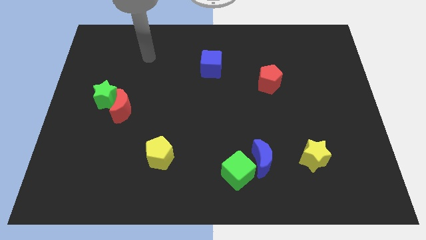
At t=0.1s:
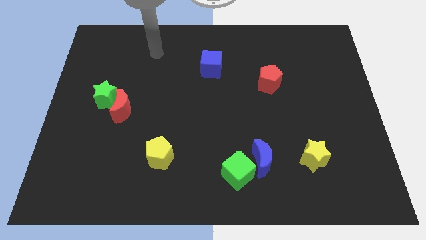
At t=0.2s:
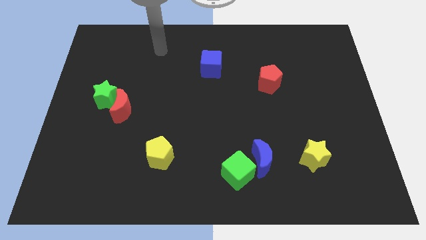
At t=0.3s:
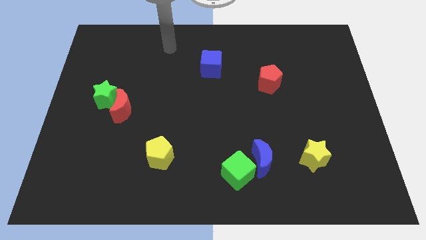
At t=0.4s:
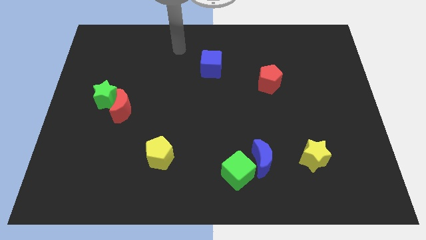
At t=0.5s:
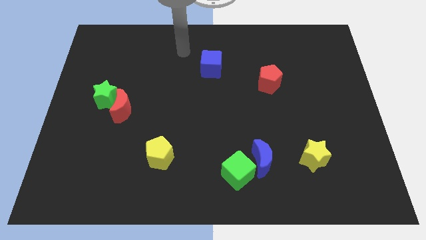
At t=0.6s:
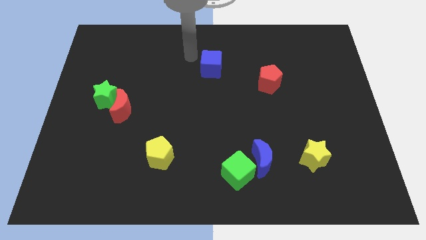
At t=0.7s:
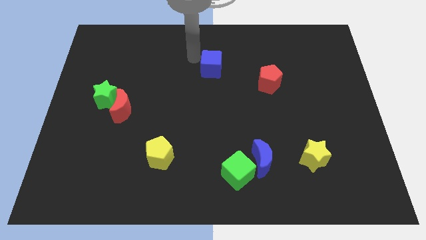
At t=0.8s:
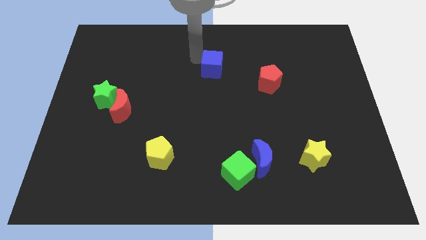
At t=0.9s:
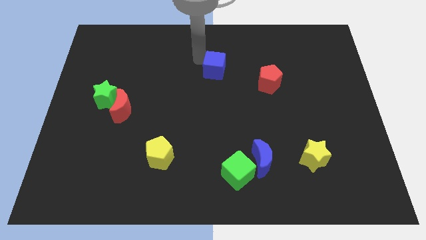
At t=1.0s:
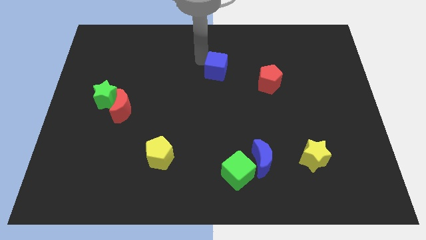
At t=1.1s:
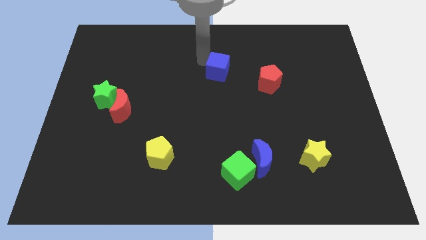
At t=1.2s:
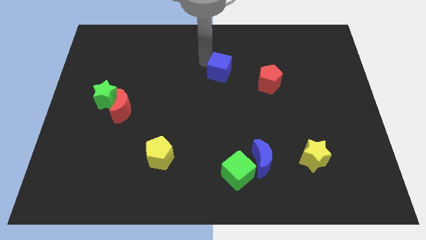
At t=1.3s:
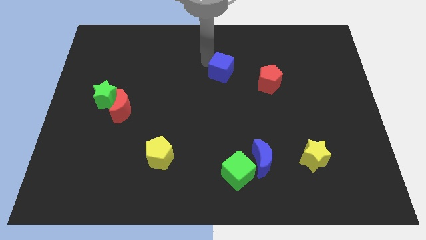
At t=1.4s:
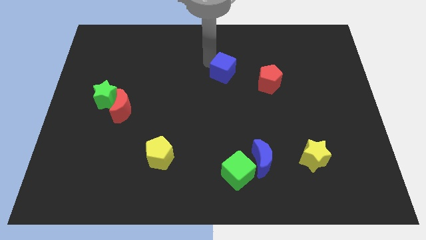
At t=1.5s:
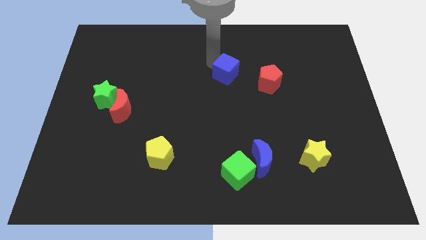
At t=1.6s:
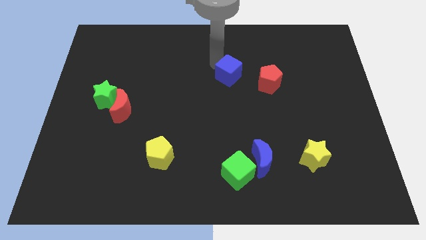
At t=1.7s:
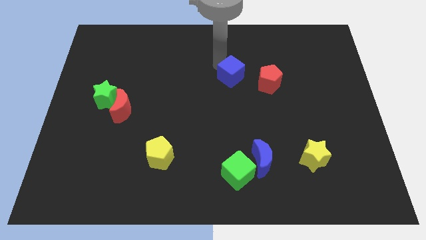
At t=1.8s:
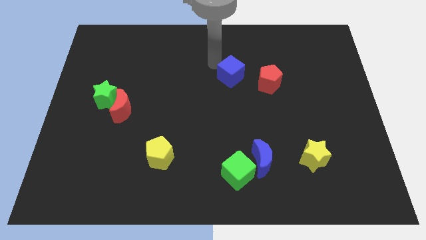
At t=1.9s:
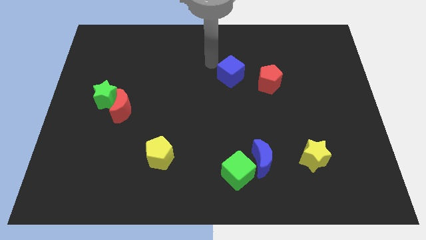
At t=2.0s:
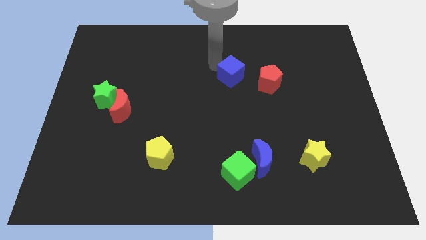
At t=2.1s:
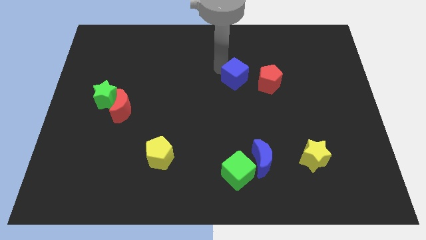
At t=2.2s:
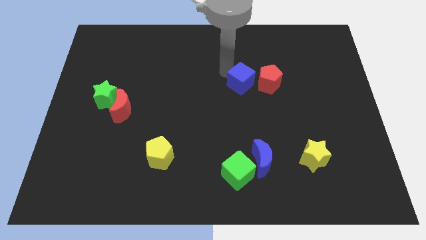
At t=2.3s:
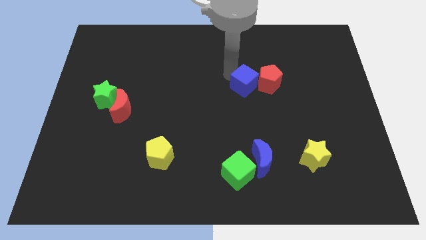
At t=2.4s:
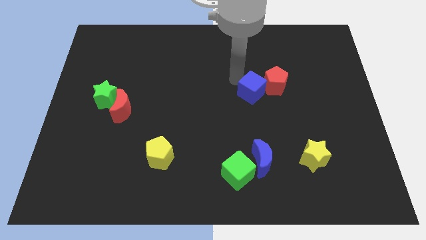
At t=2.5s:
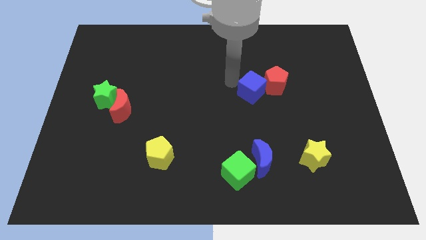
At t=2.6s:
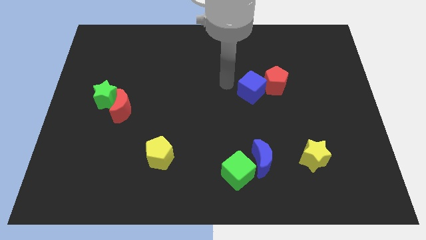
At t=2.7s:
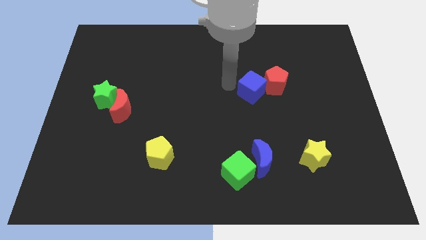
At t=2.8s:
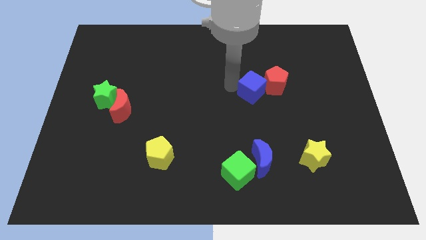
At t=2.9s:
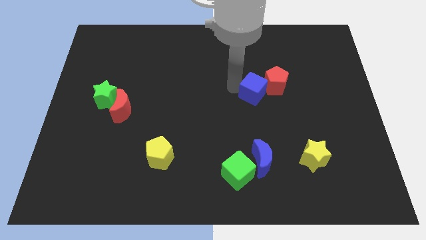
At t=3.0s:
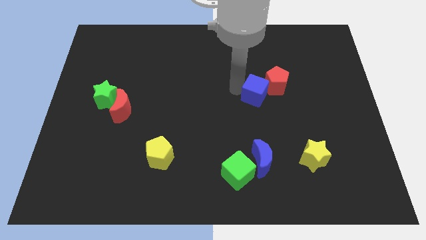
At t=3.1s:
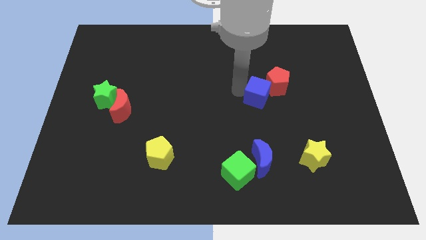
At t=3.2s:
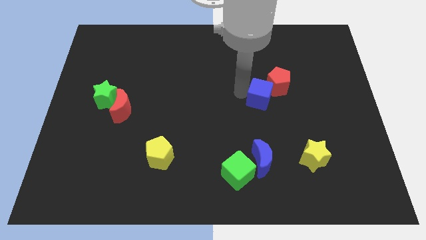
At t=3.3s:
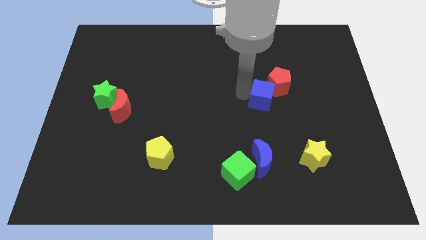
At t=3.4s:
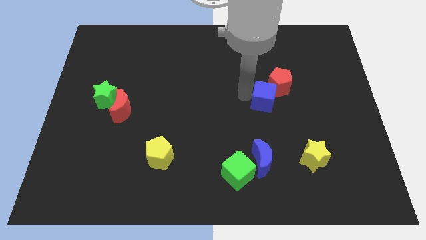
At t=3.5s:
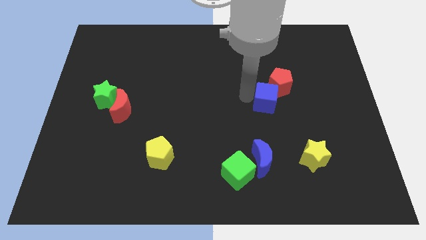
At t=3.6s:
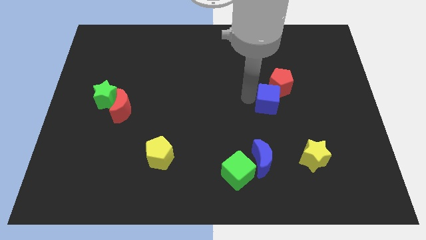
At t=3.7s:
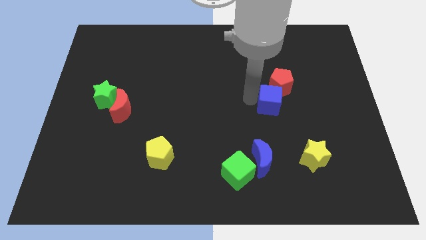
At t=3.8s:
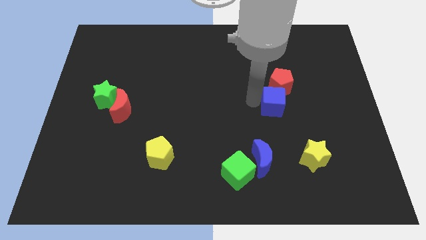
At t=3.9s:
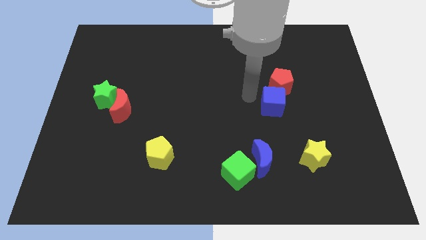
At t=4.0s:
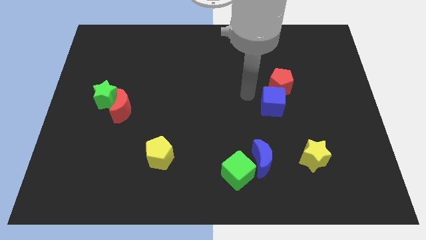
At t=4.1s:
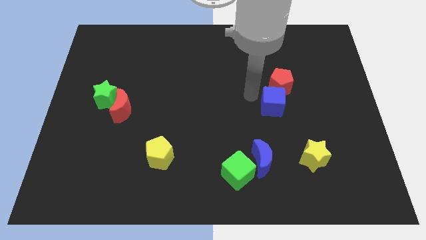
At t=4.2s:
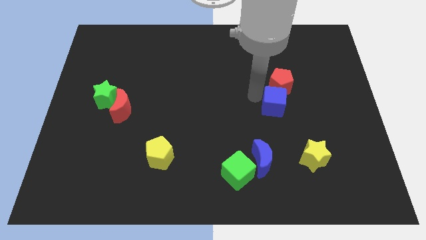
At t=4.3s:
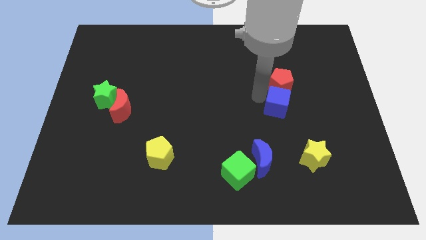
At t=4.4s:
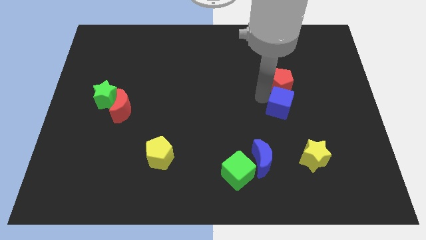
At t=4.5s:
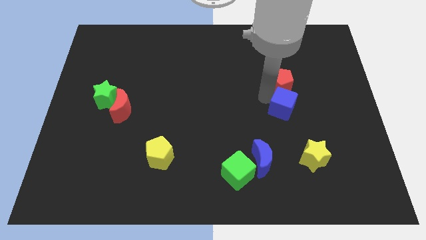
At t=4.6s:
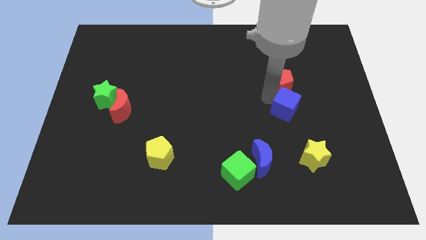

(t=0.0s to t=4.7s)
put the blue cube above the yellow star

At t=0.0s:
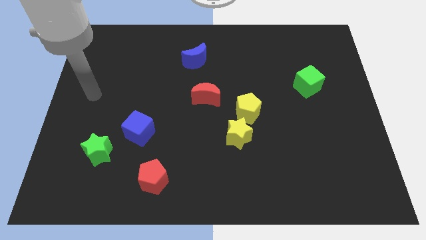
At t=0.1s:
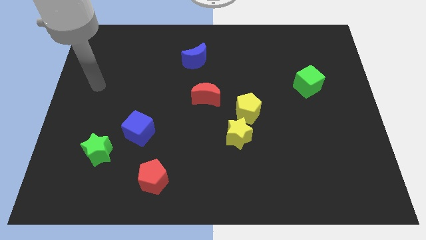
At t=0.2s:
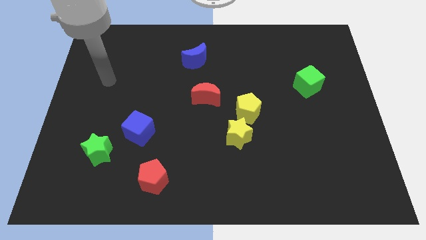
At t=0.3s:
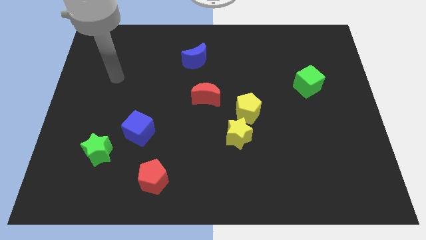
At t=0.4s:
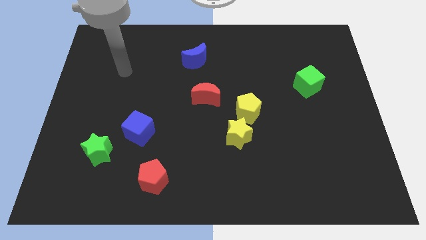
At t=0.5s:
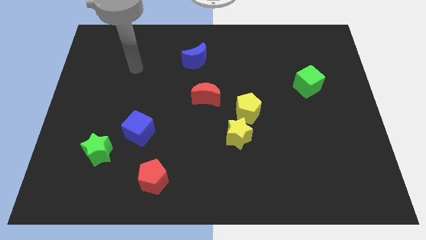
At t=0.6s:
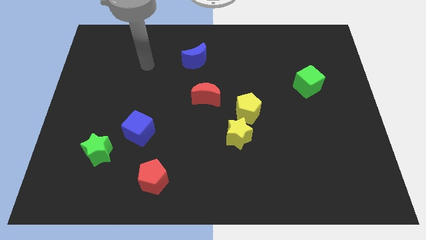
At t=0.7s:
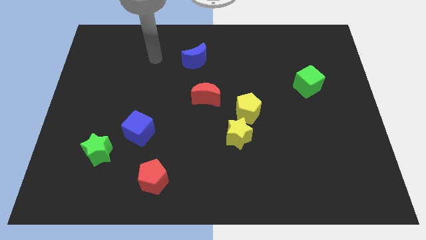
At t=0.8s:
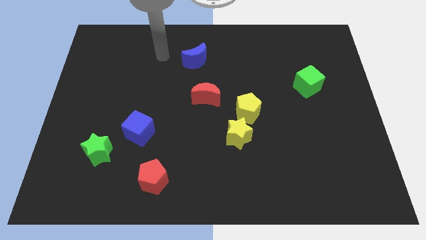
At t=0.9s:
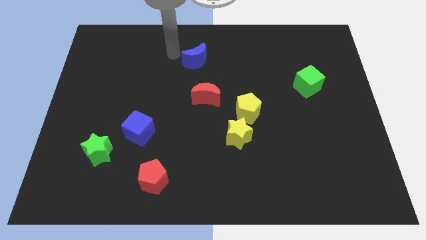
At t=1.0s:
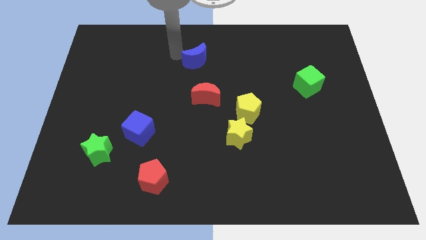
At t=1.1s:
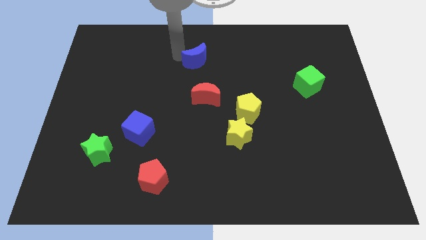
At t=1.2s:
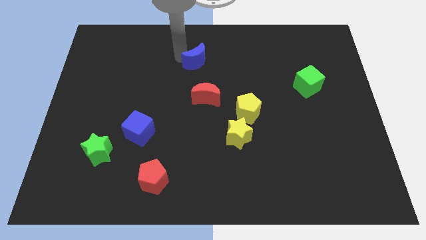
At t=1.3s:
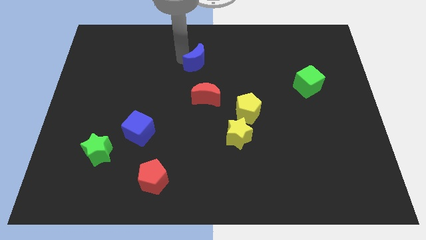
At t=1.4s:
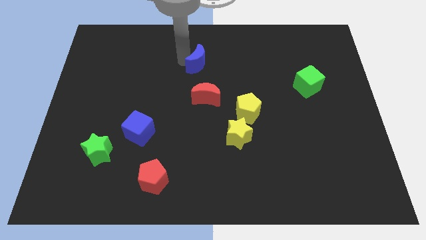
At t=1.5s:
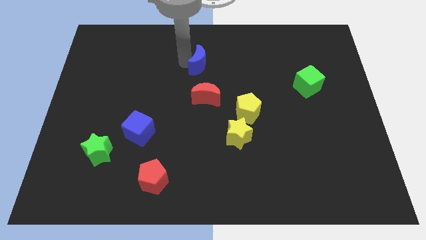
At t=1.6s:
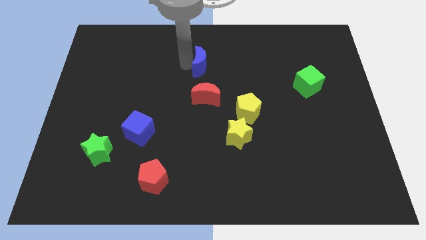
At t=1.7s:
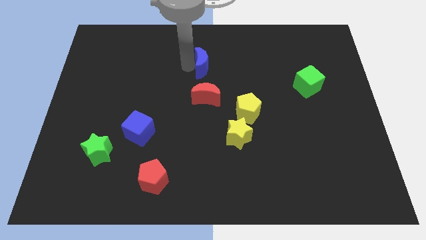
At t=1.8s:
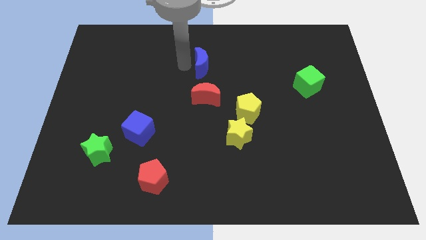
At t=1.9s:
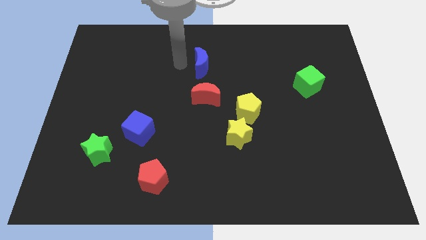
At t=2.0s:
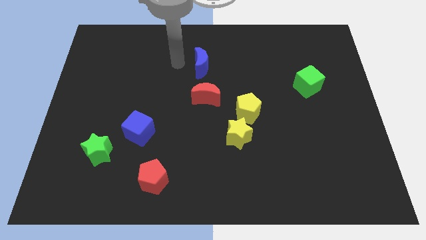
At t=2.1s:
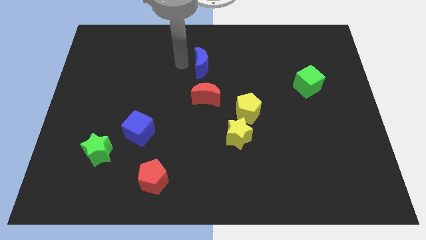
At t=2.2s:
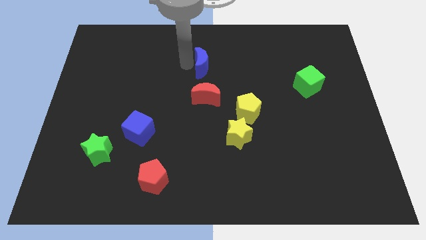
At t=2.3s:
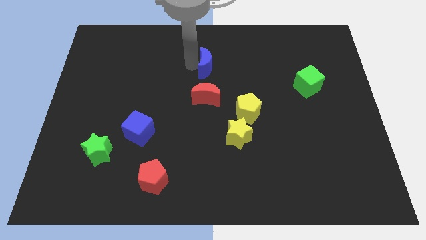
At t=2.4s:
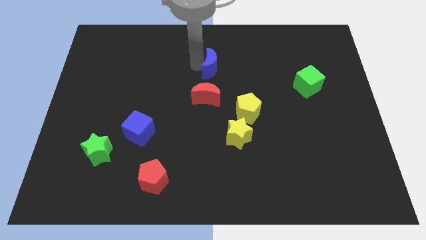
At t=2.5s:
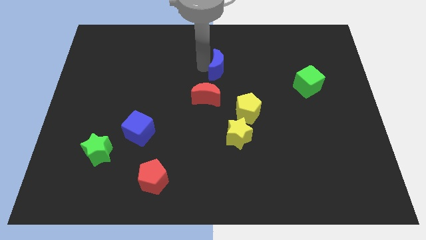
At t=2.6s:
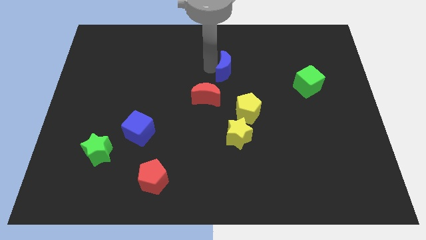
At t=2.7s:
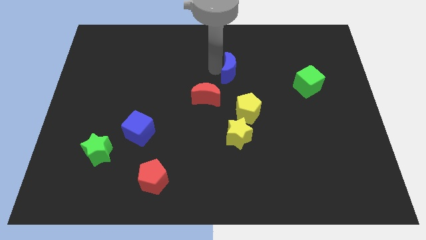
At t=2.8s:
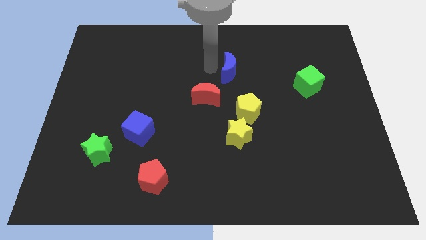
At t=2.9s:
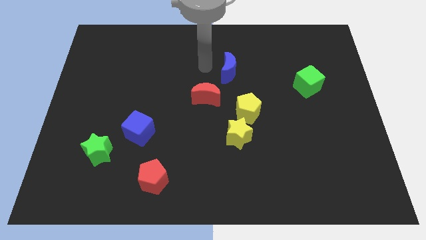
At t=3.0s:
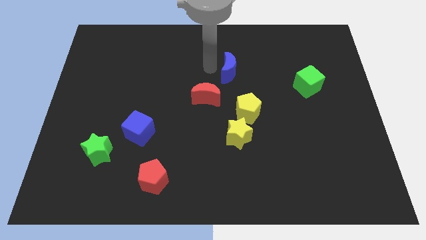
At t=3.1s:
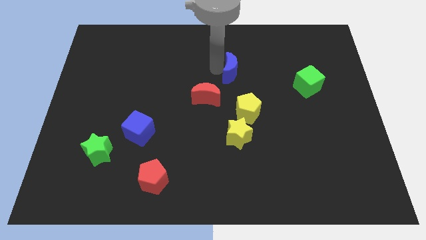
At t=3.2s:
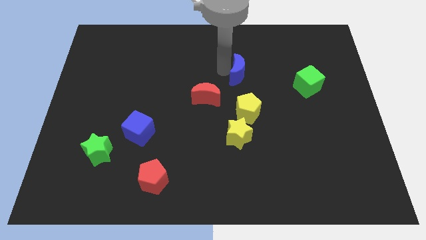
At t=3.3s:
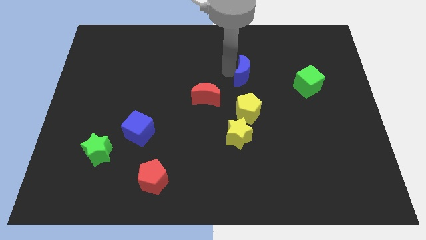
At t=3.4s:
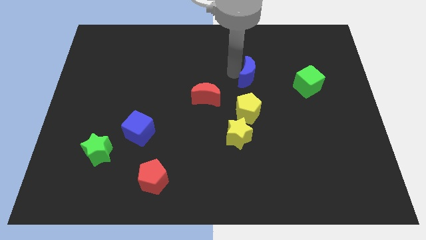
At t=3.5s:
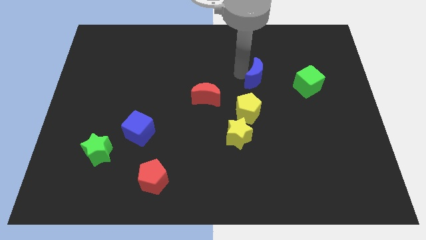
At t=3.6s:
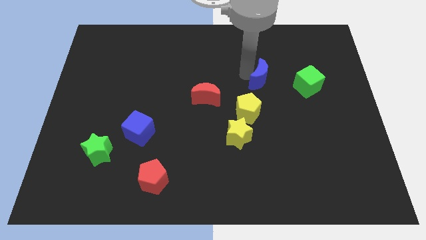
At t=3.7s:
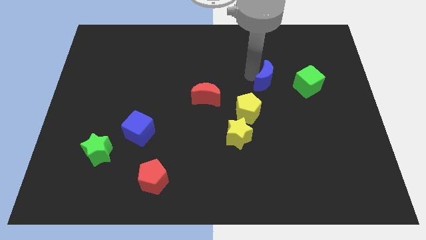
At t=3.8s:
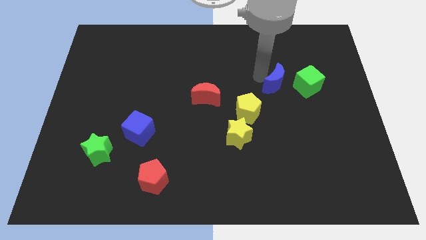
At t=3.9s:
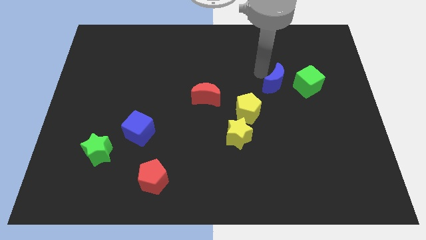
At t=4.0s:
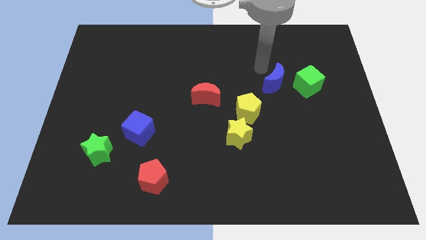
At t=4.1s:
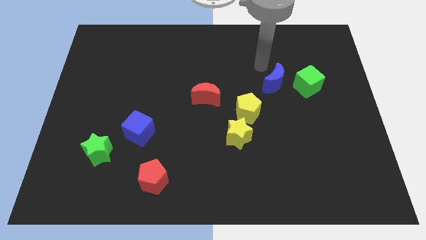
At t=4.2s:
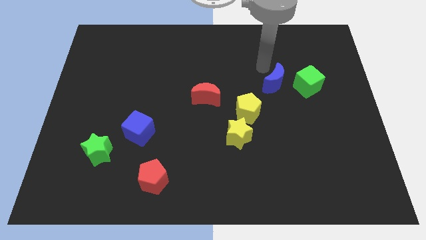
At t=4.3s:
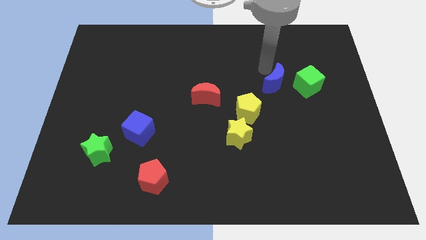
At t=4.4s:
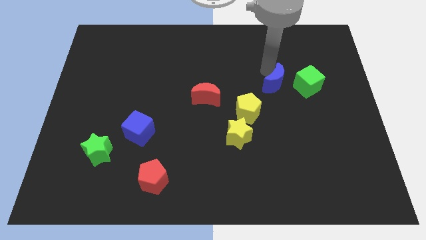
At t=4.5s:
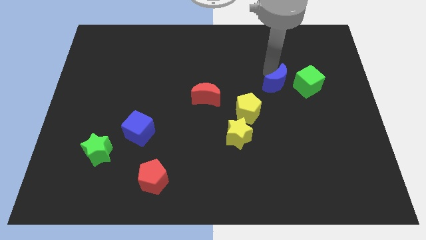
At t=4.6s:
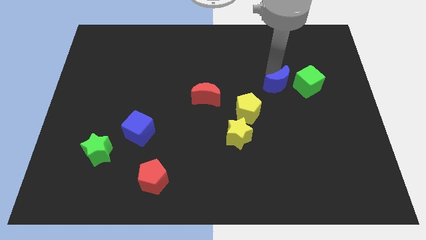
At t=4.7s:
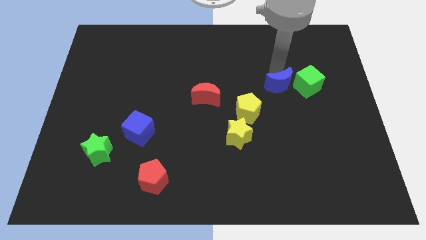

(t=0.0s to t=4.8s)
move the blue moon to the bottom left side of the green cube
